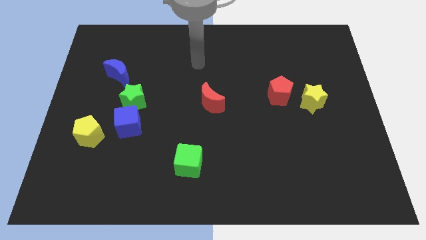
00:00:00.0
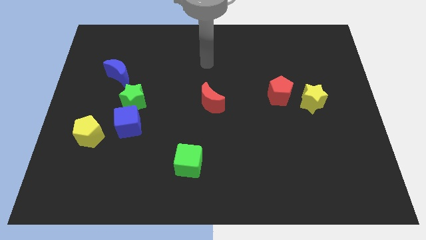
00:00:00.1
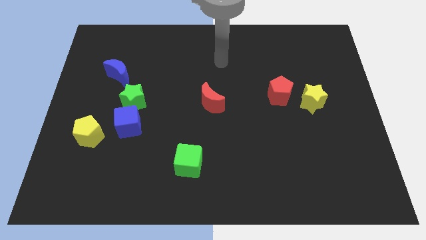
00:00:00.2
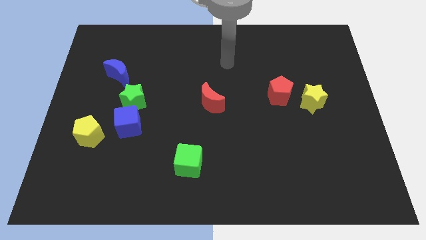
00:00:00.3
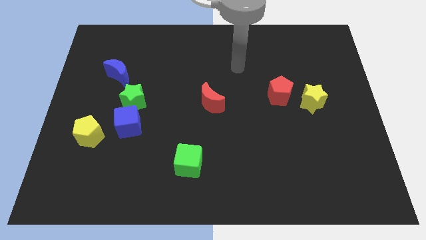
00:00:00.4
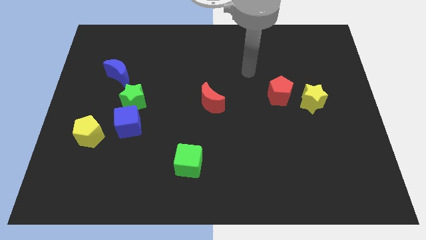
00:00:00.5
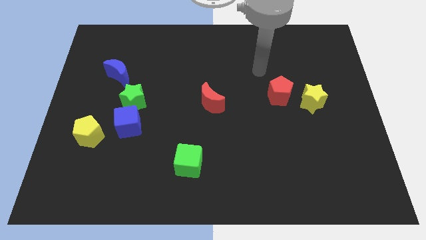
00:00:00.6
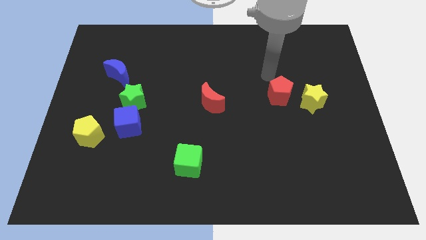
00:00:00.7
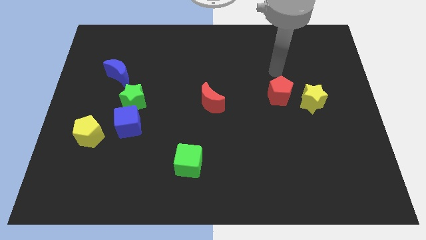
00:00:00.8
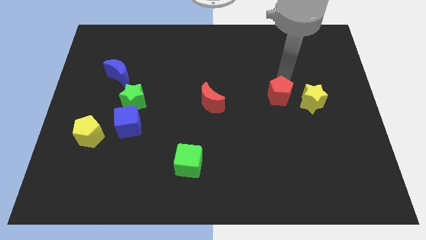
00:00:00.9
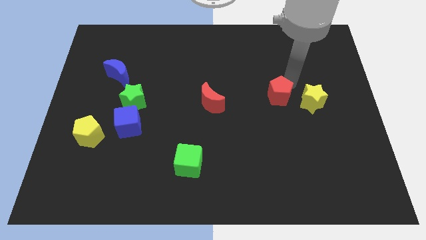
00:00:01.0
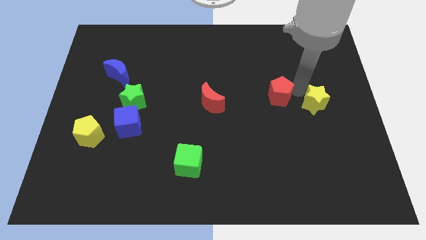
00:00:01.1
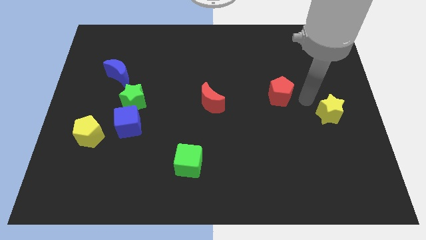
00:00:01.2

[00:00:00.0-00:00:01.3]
separate the red pentagon from the yellow star

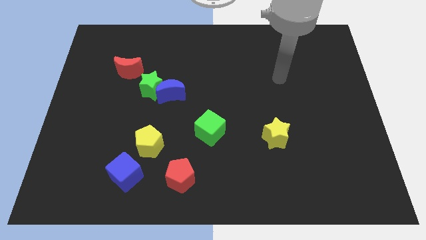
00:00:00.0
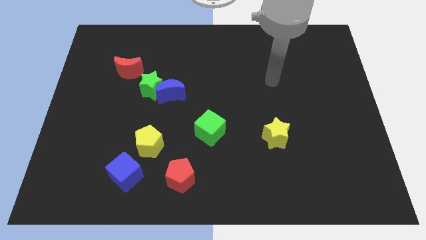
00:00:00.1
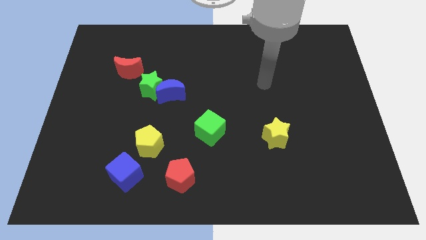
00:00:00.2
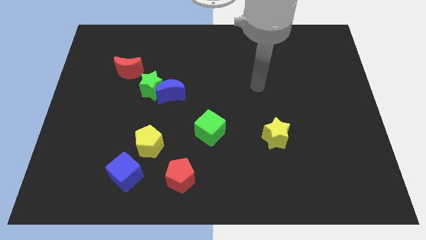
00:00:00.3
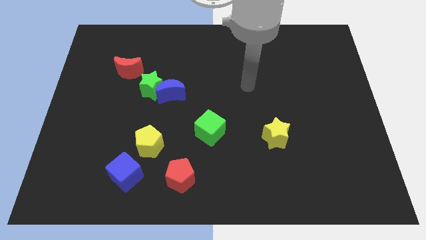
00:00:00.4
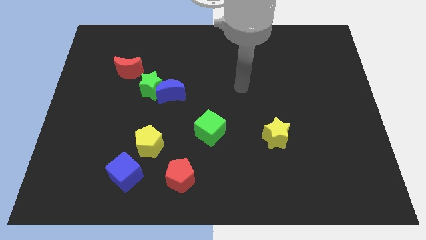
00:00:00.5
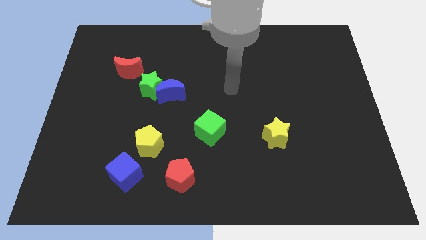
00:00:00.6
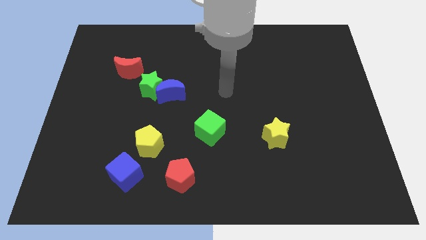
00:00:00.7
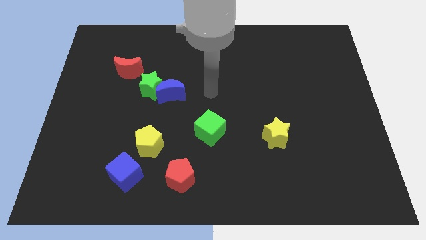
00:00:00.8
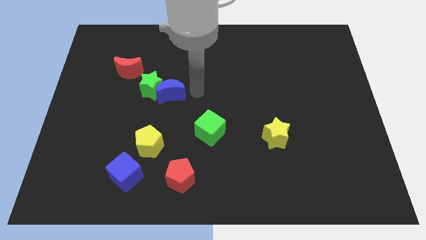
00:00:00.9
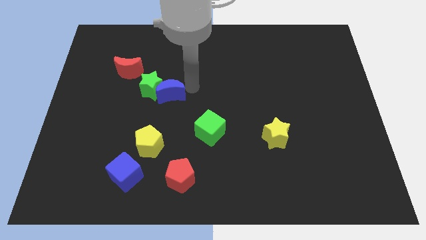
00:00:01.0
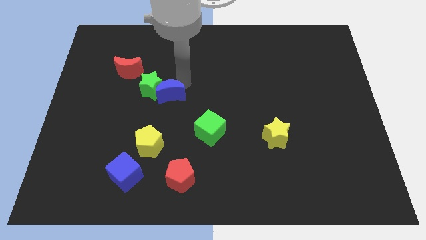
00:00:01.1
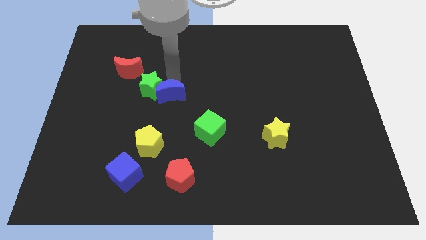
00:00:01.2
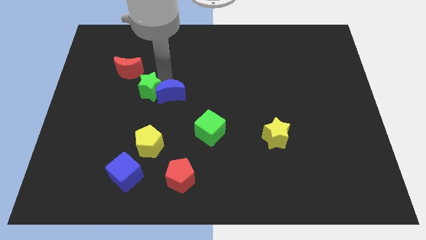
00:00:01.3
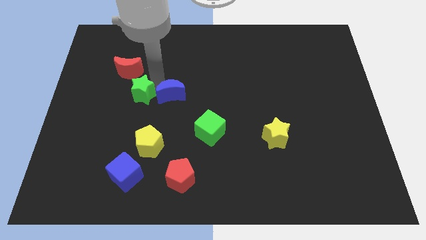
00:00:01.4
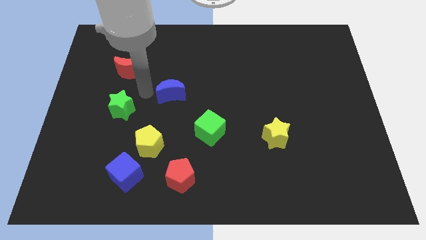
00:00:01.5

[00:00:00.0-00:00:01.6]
pull the blue moon apart from the green star

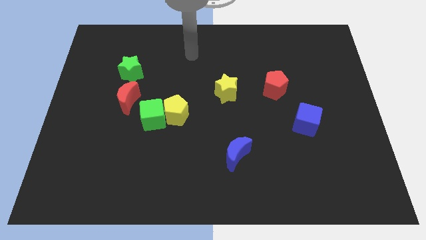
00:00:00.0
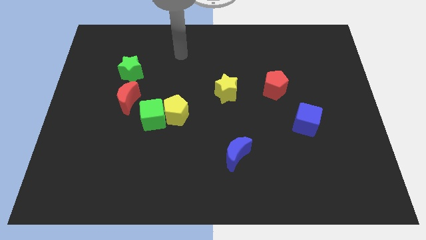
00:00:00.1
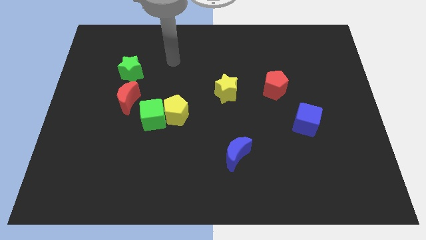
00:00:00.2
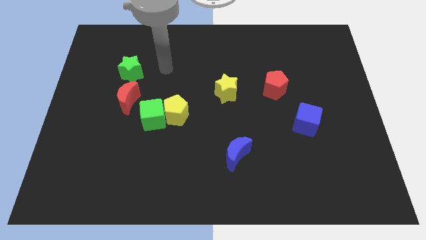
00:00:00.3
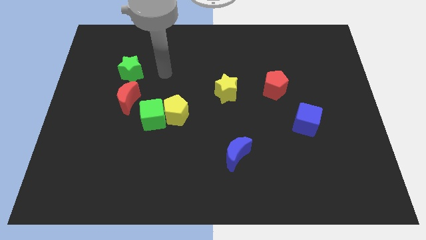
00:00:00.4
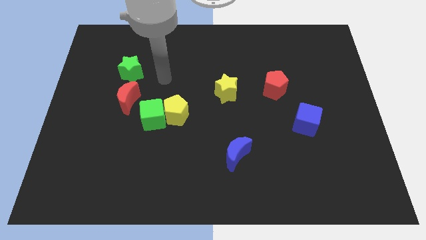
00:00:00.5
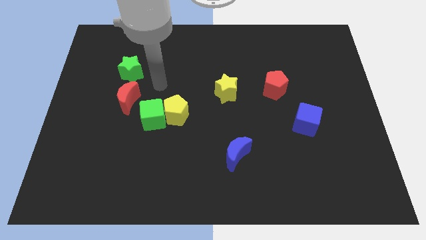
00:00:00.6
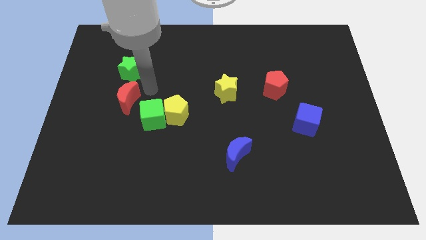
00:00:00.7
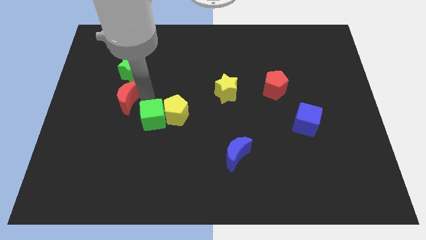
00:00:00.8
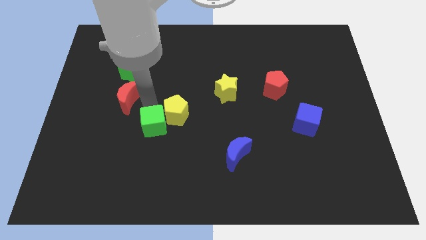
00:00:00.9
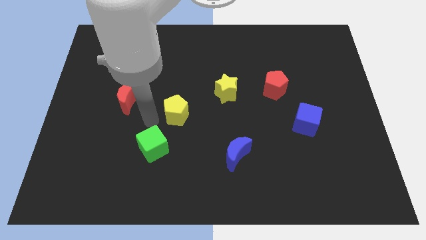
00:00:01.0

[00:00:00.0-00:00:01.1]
pull the yellow pentagon apart from the green cube

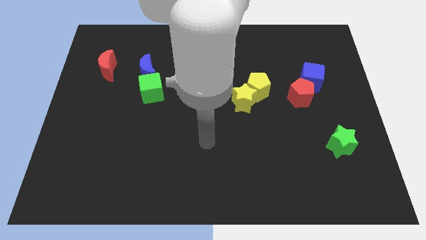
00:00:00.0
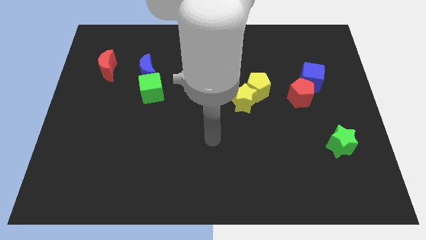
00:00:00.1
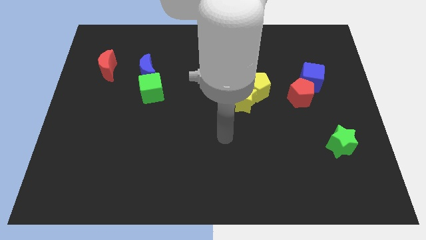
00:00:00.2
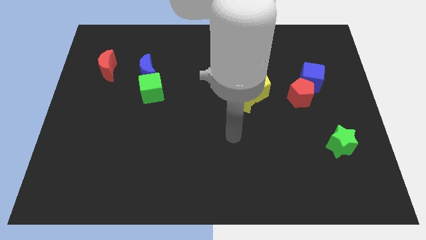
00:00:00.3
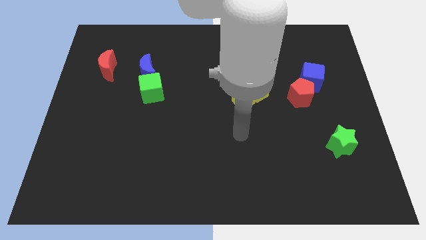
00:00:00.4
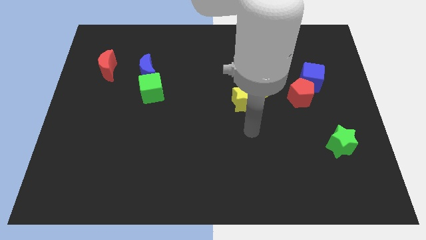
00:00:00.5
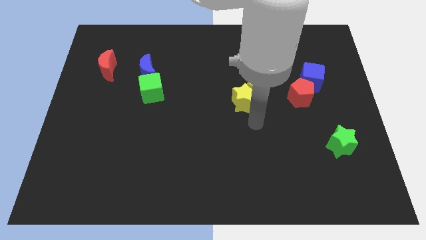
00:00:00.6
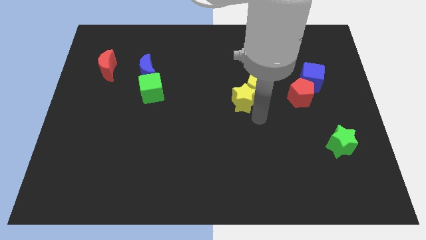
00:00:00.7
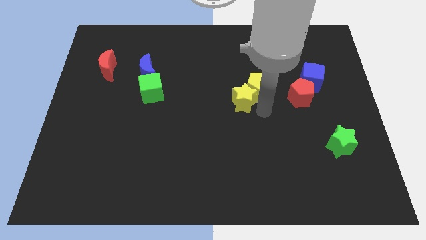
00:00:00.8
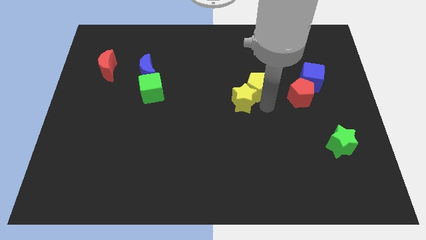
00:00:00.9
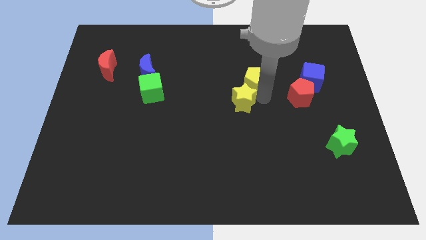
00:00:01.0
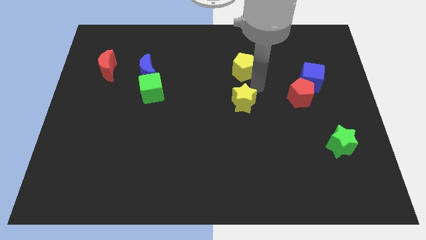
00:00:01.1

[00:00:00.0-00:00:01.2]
separate the yellow star from the yellow pentagon

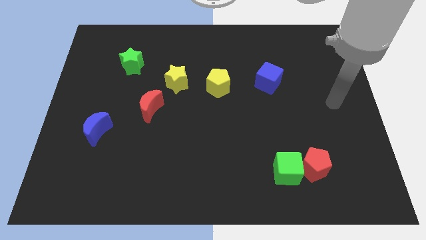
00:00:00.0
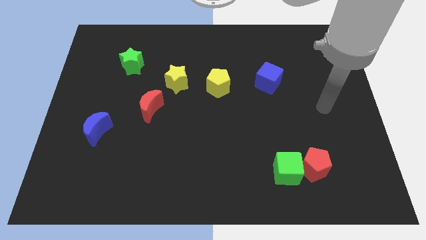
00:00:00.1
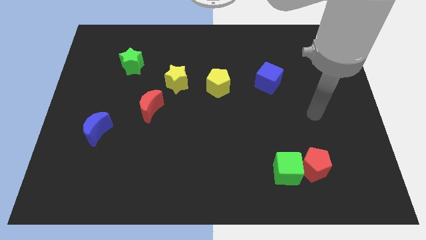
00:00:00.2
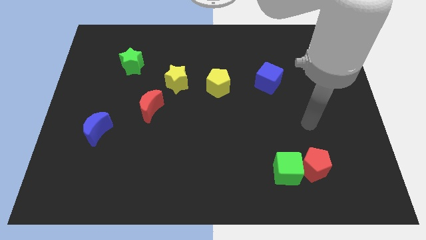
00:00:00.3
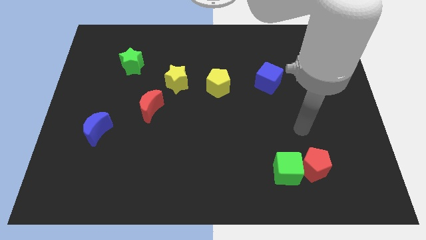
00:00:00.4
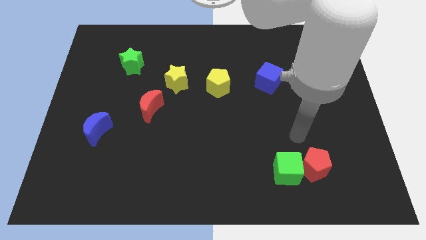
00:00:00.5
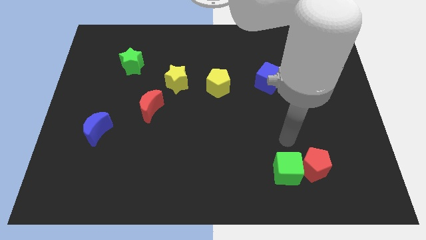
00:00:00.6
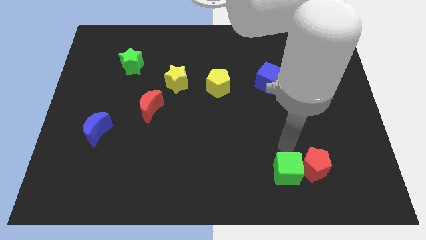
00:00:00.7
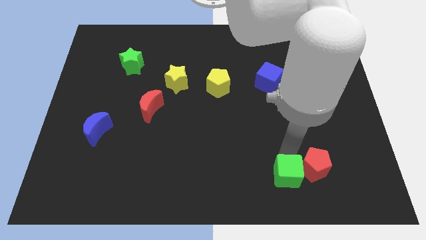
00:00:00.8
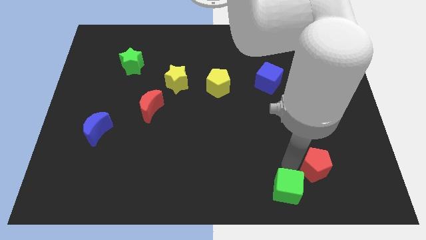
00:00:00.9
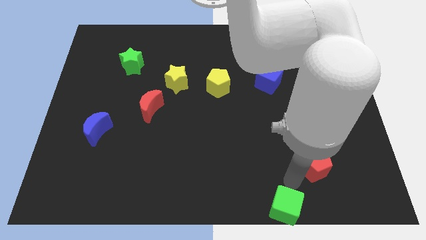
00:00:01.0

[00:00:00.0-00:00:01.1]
pull the red pentagon apart from the green cube

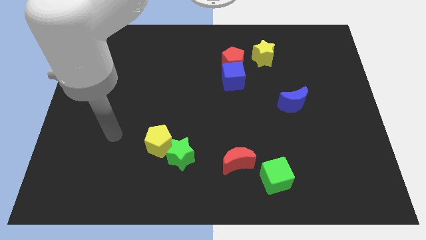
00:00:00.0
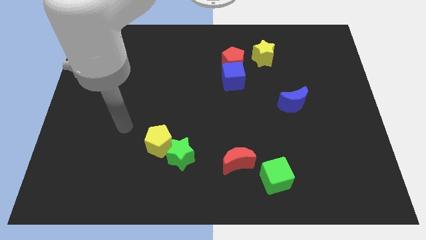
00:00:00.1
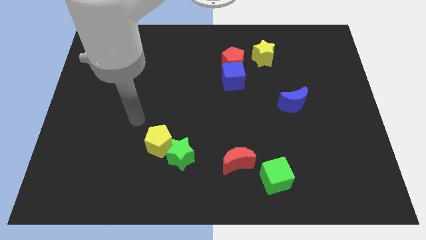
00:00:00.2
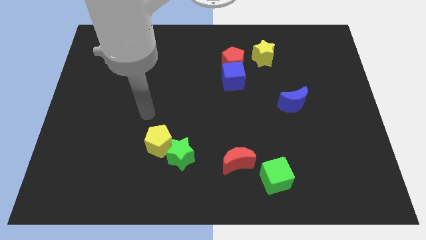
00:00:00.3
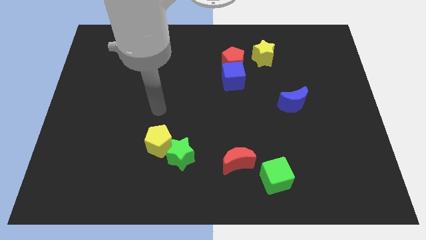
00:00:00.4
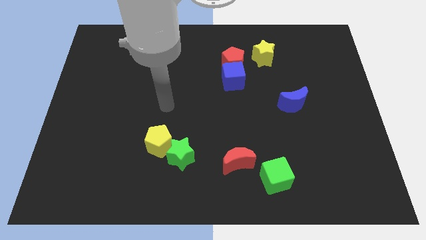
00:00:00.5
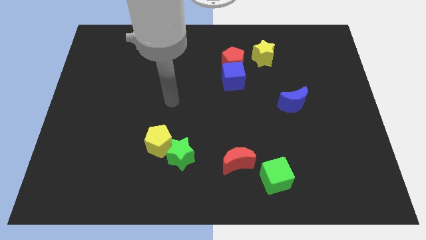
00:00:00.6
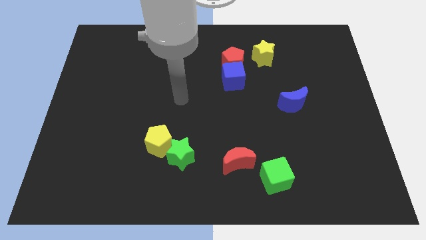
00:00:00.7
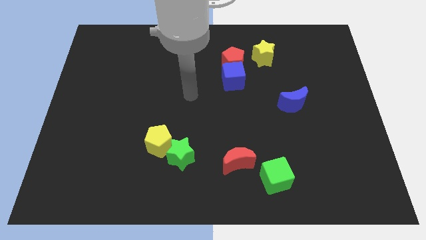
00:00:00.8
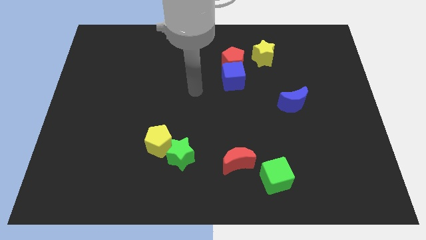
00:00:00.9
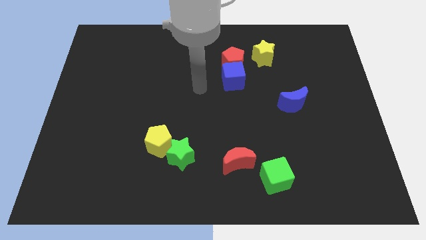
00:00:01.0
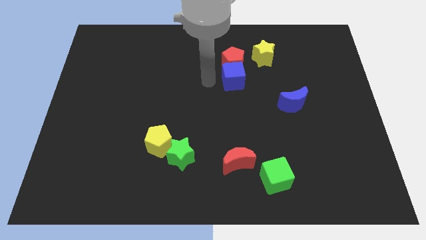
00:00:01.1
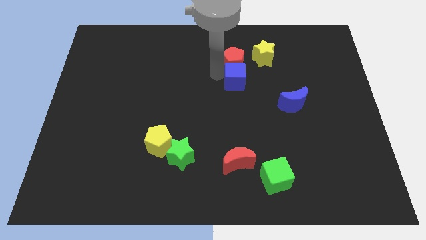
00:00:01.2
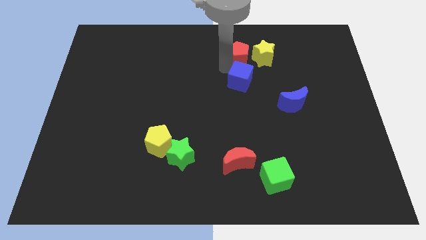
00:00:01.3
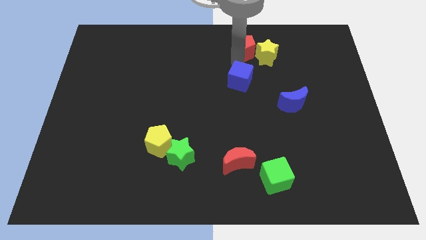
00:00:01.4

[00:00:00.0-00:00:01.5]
move the blue cube away from the red pentagon

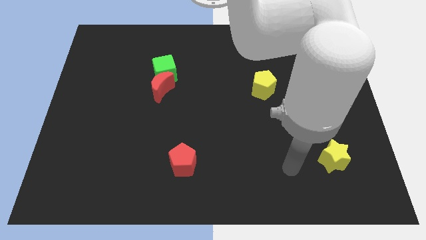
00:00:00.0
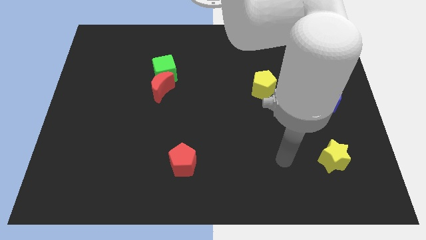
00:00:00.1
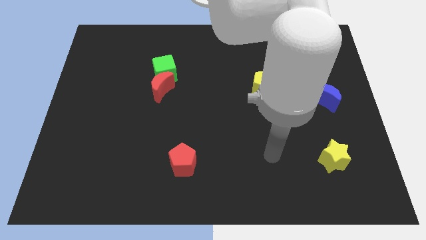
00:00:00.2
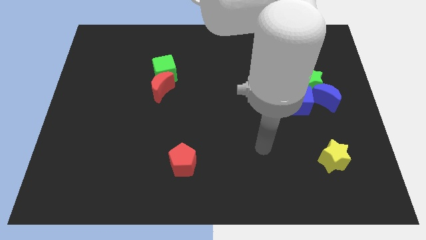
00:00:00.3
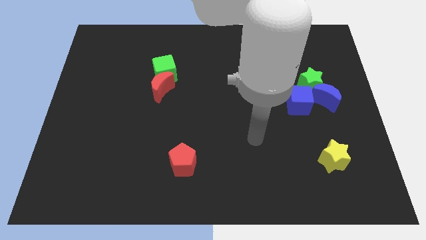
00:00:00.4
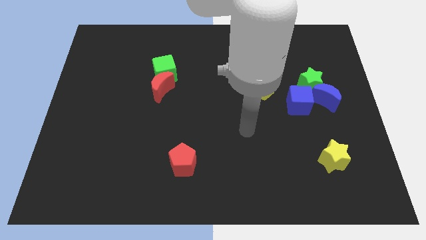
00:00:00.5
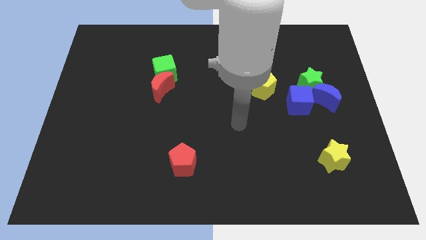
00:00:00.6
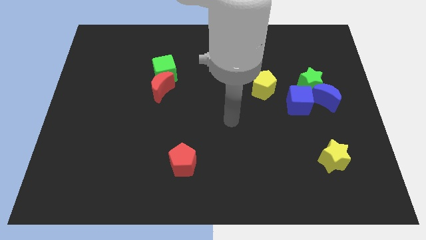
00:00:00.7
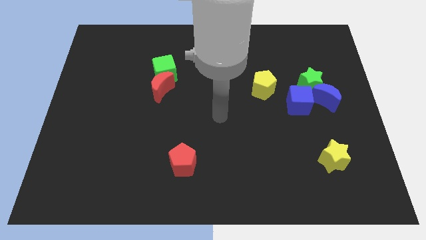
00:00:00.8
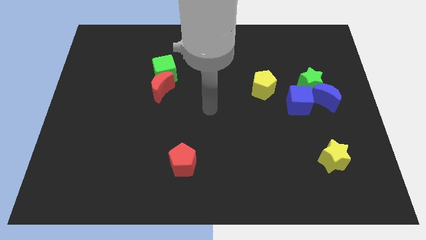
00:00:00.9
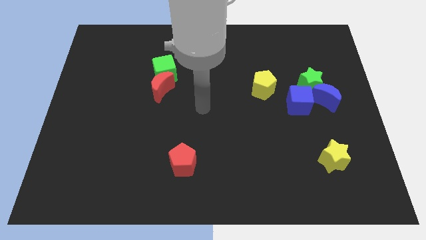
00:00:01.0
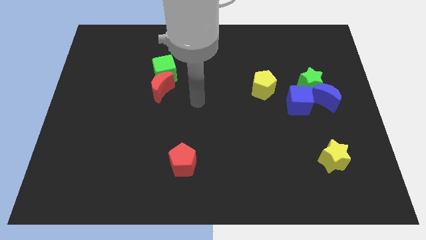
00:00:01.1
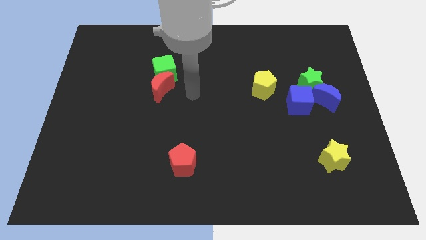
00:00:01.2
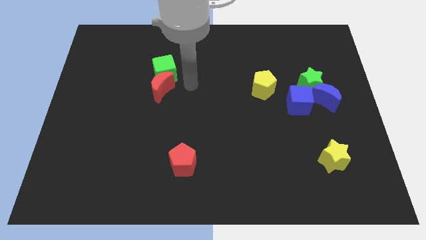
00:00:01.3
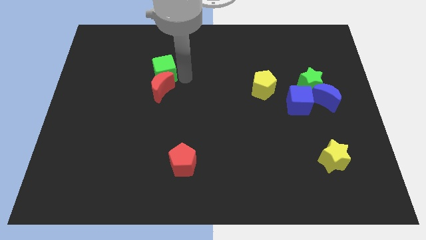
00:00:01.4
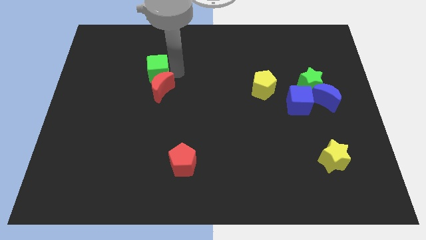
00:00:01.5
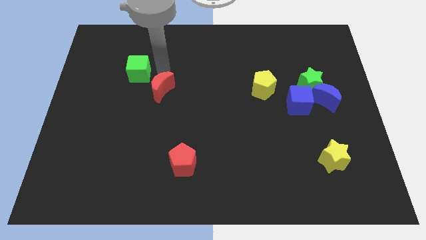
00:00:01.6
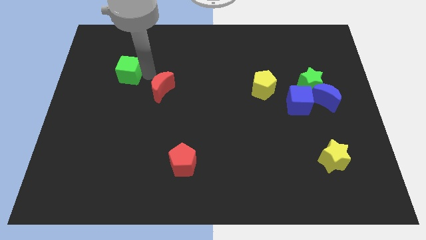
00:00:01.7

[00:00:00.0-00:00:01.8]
separate the red moon from the green cube
